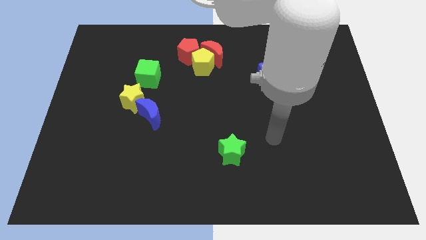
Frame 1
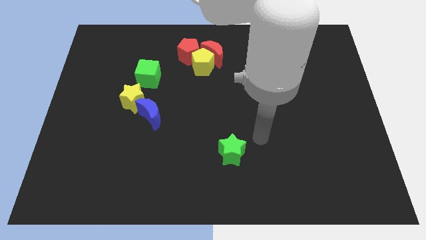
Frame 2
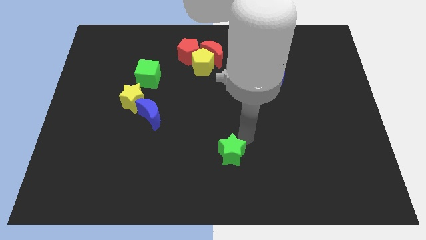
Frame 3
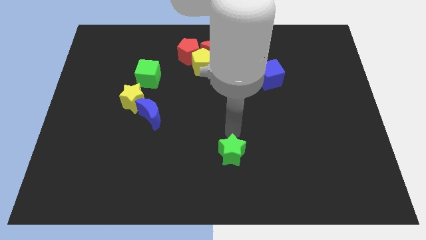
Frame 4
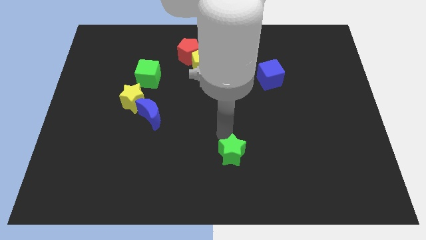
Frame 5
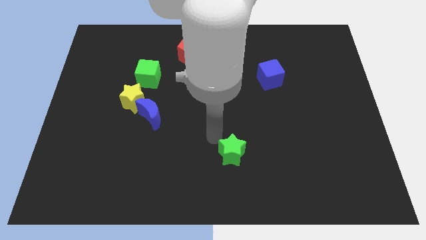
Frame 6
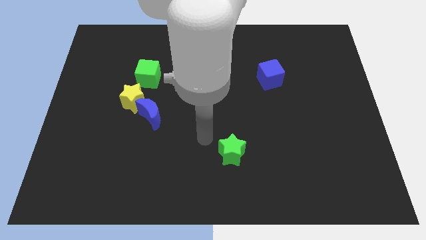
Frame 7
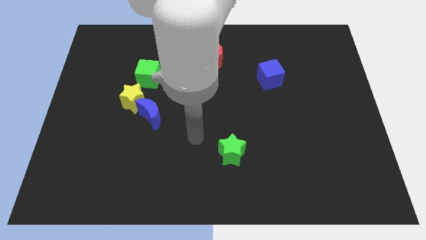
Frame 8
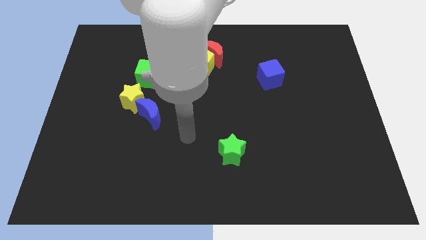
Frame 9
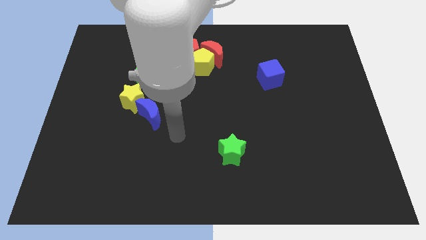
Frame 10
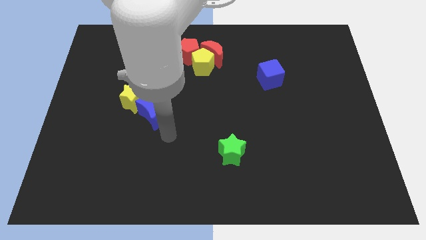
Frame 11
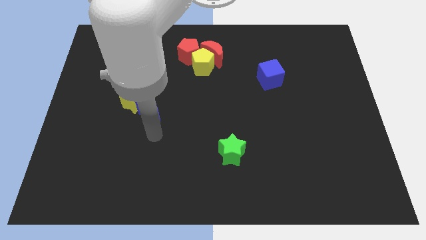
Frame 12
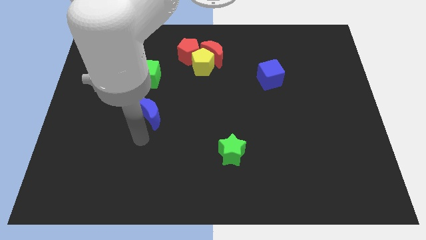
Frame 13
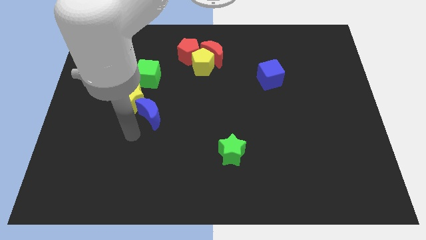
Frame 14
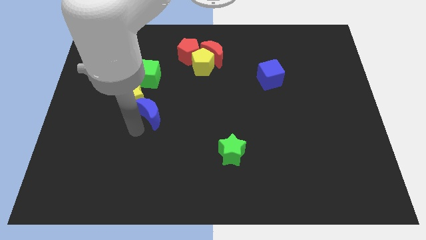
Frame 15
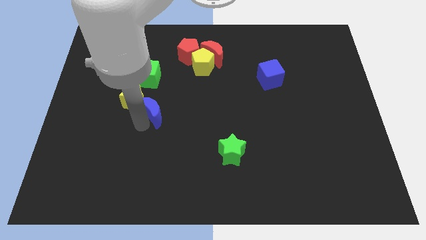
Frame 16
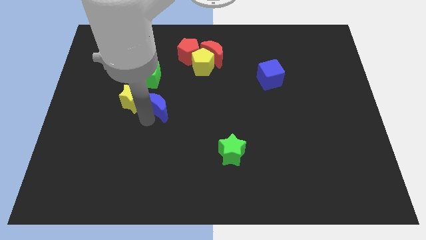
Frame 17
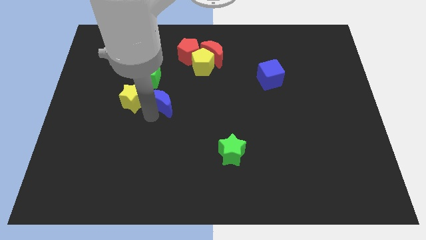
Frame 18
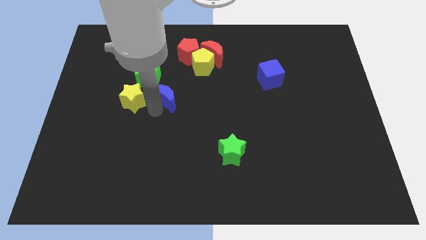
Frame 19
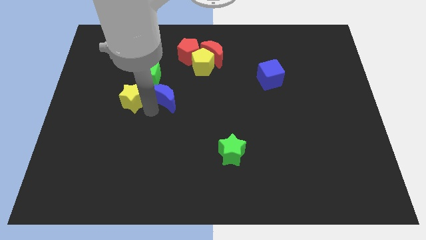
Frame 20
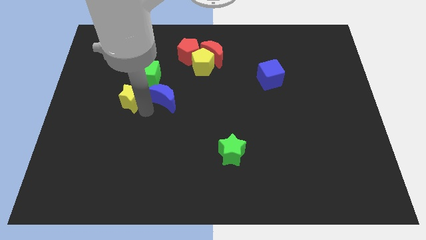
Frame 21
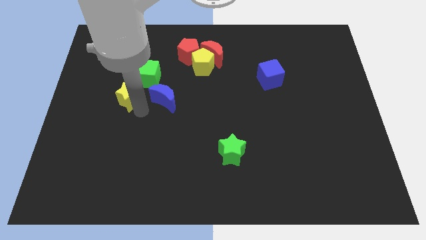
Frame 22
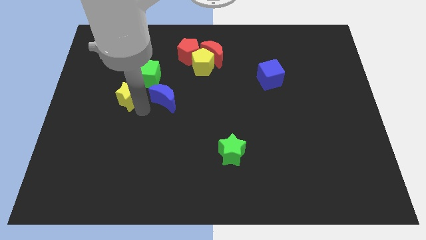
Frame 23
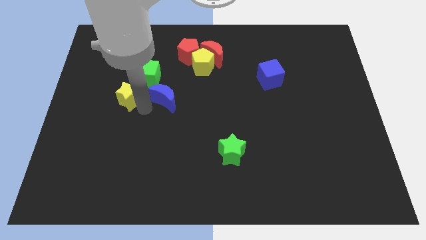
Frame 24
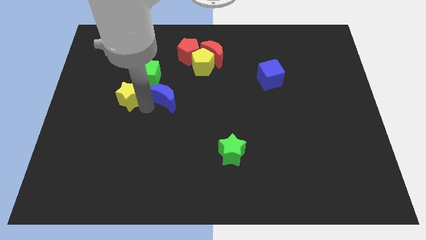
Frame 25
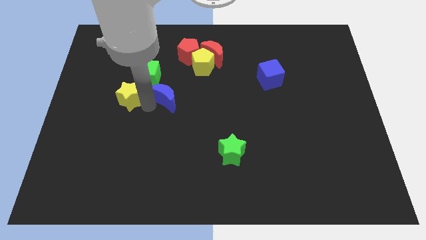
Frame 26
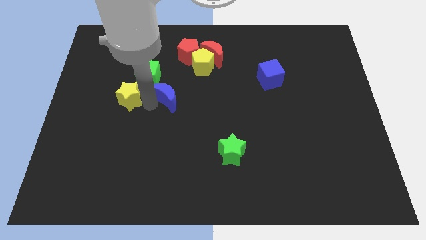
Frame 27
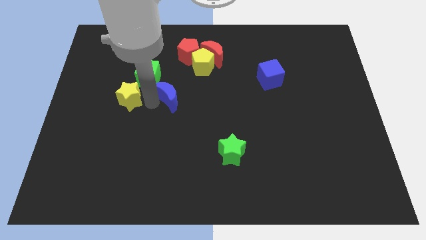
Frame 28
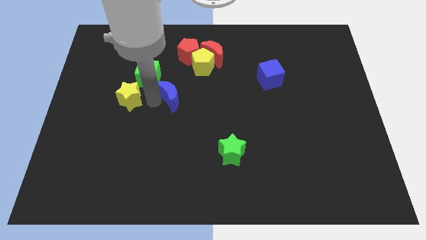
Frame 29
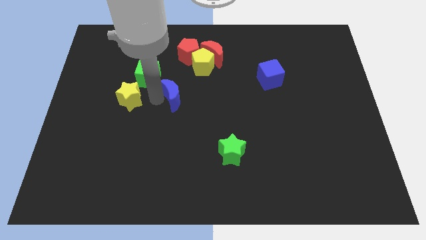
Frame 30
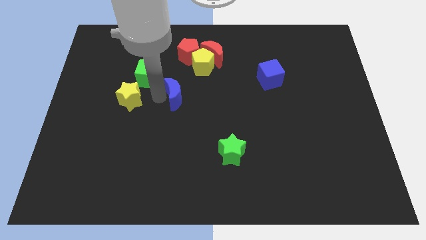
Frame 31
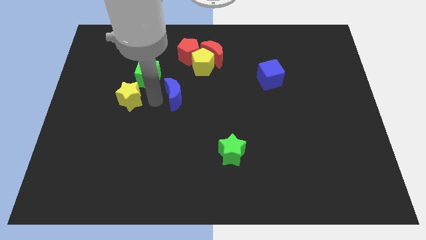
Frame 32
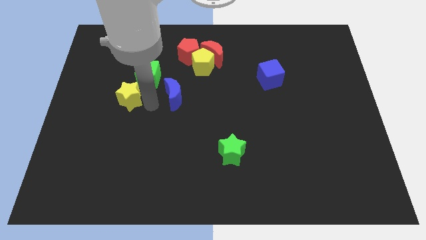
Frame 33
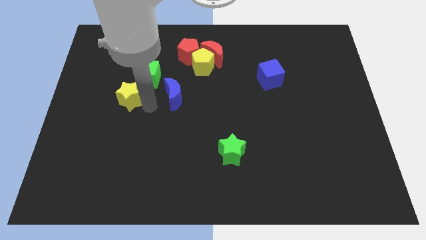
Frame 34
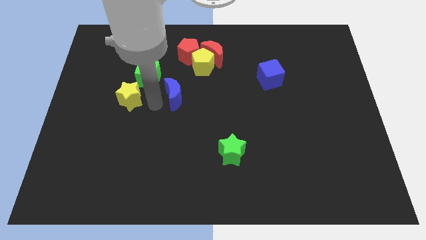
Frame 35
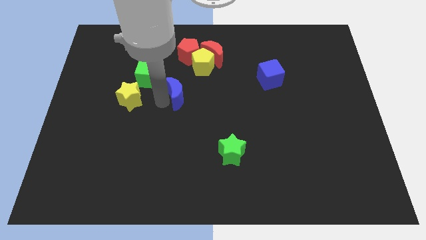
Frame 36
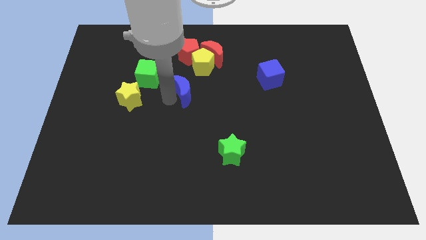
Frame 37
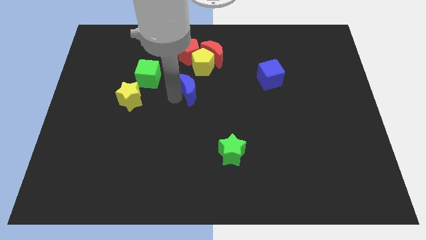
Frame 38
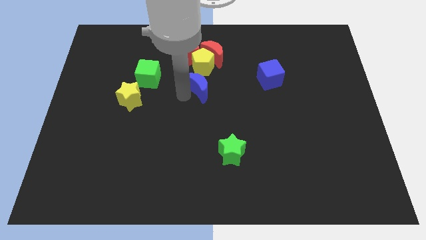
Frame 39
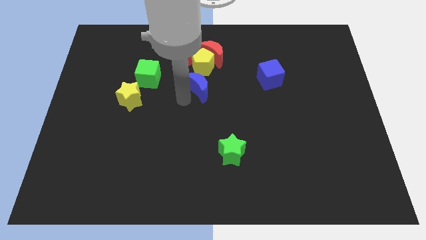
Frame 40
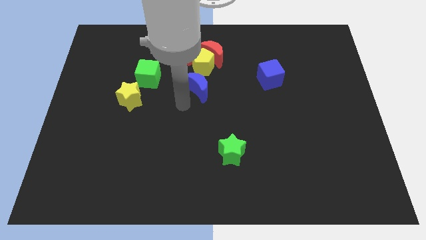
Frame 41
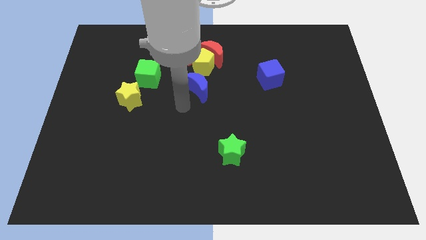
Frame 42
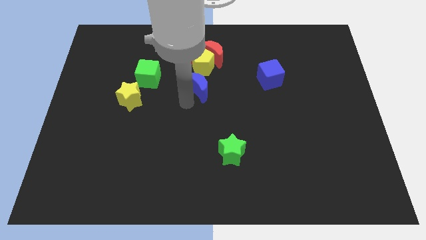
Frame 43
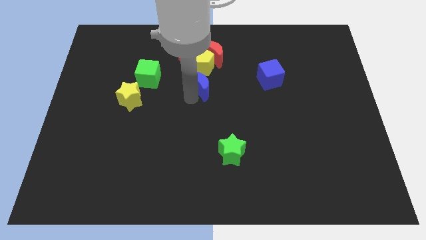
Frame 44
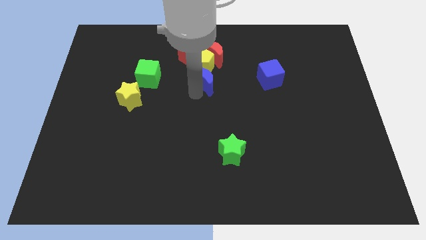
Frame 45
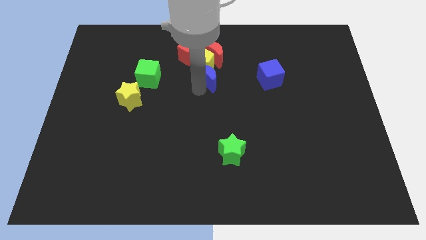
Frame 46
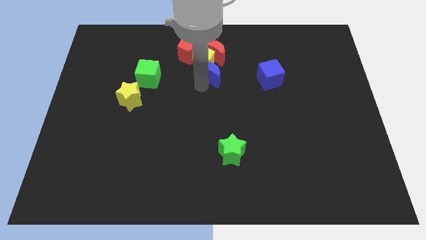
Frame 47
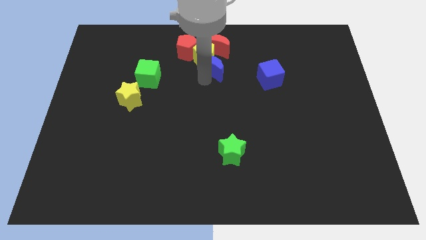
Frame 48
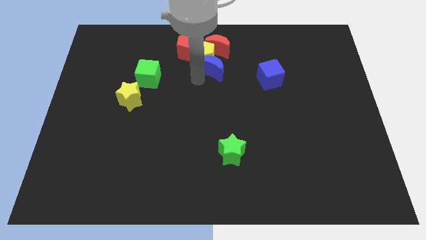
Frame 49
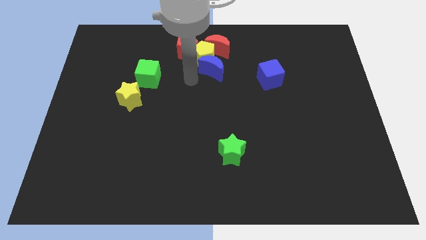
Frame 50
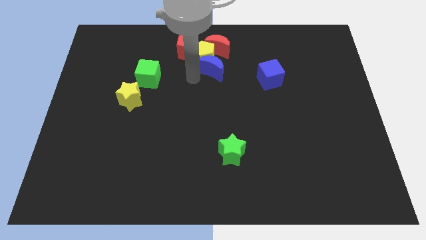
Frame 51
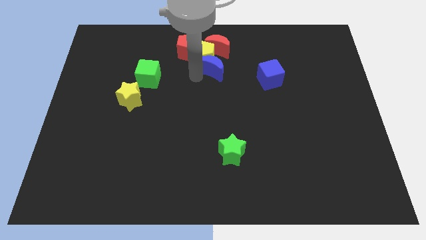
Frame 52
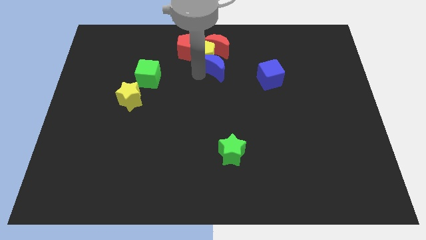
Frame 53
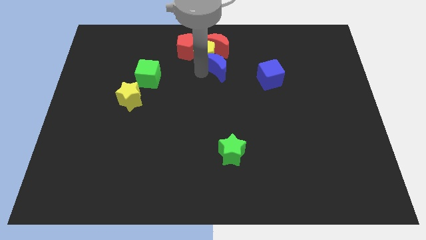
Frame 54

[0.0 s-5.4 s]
put the blue moon just right of the yellow pentagon
